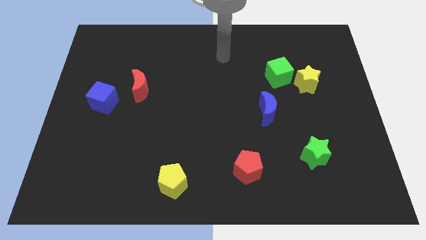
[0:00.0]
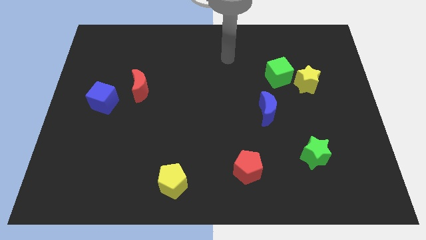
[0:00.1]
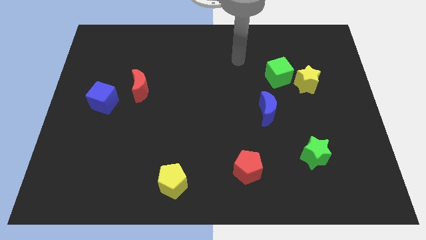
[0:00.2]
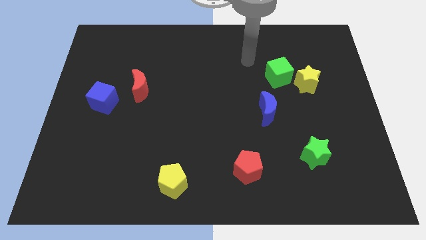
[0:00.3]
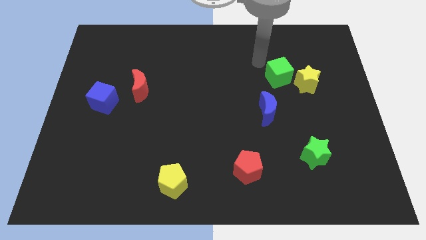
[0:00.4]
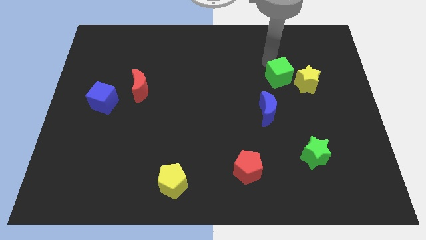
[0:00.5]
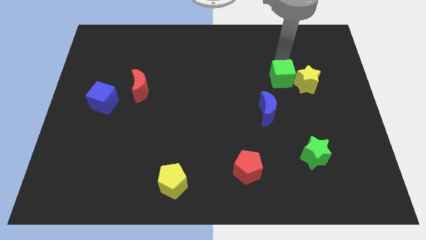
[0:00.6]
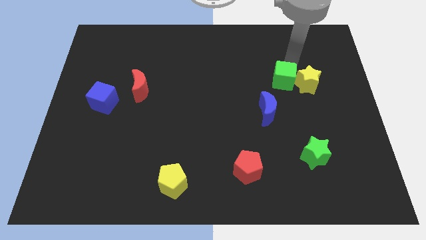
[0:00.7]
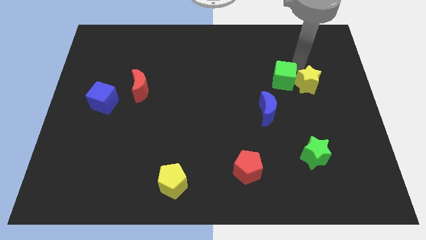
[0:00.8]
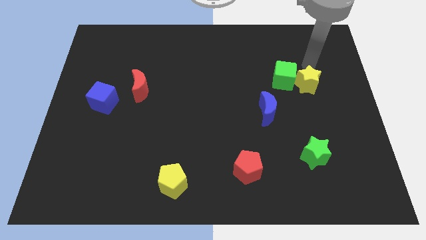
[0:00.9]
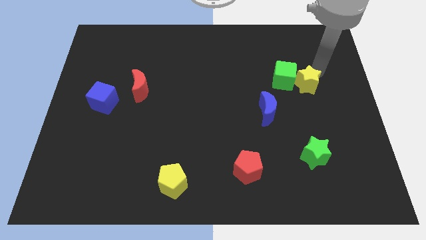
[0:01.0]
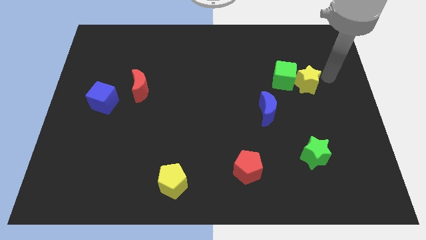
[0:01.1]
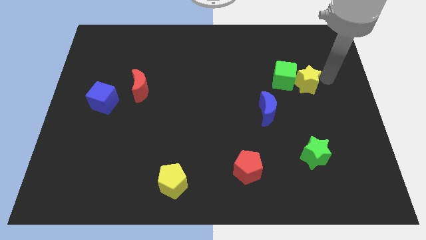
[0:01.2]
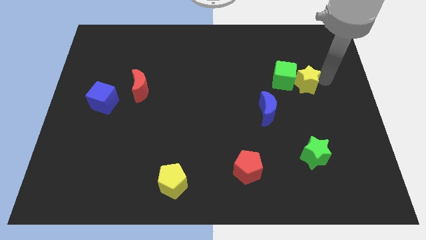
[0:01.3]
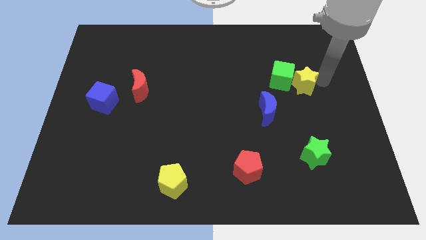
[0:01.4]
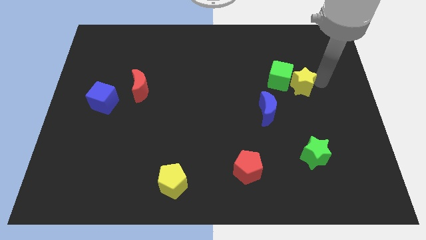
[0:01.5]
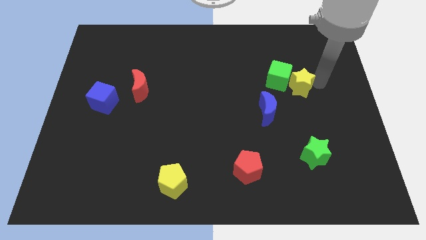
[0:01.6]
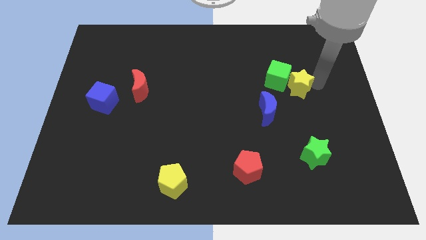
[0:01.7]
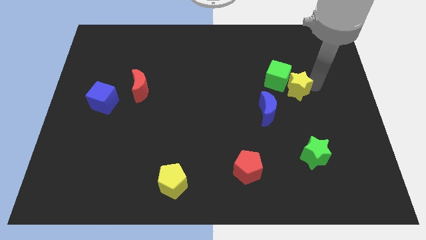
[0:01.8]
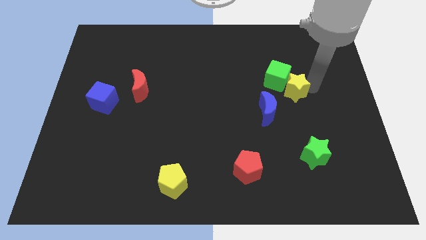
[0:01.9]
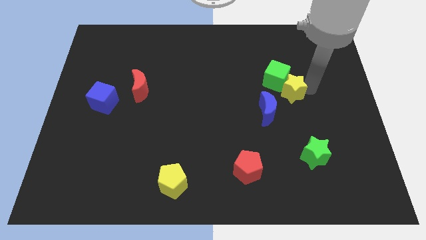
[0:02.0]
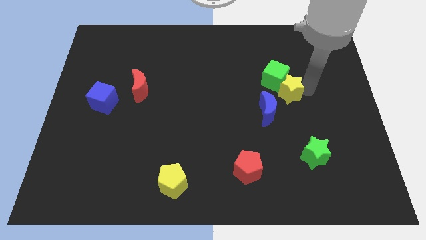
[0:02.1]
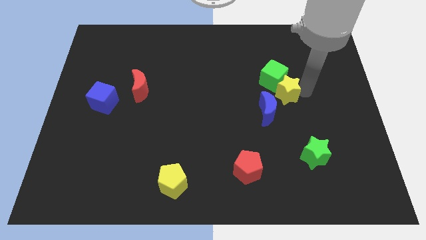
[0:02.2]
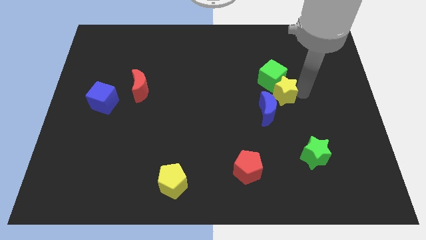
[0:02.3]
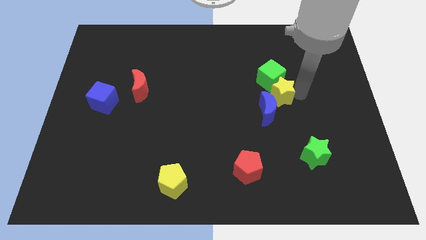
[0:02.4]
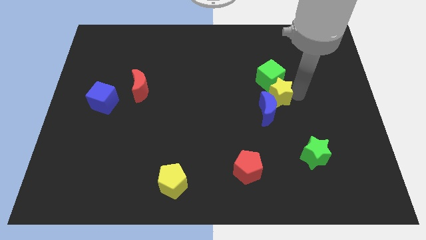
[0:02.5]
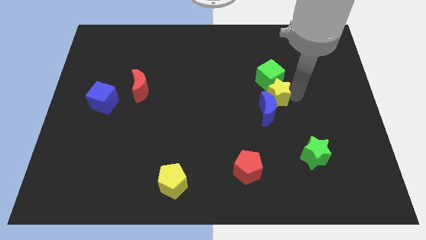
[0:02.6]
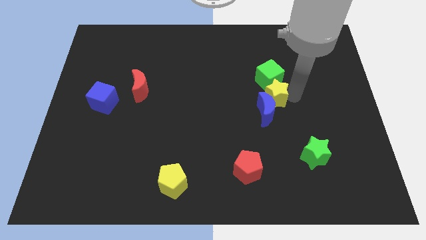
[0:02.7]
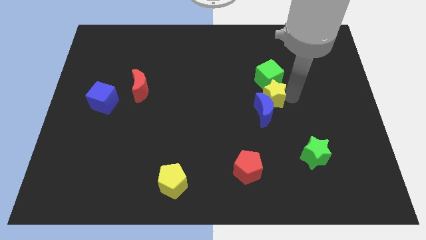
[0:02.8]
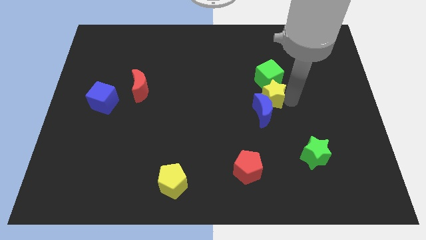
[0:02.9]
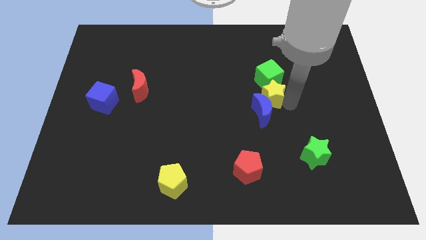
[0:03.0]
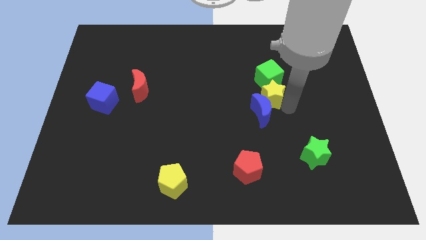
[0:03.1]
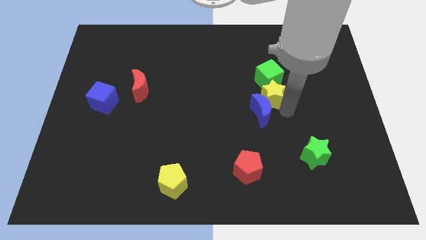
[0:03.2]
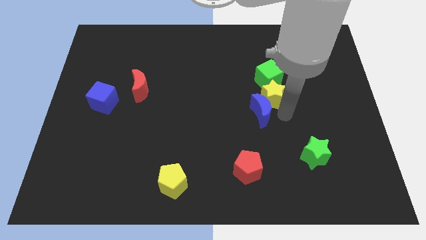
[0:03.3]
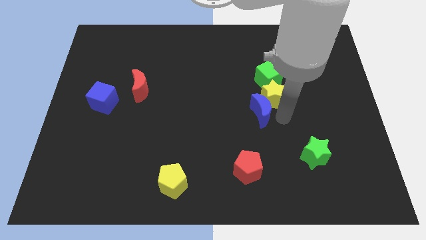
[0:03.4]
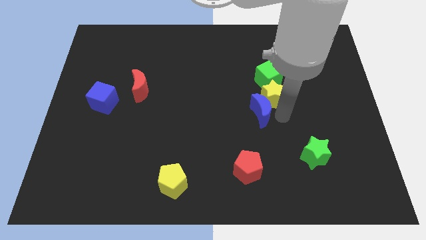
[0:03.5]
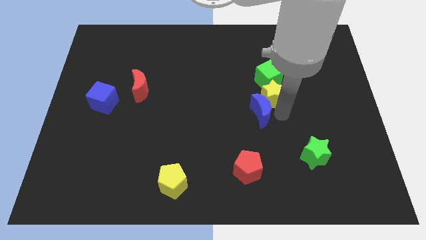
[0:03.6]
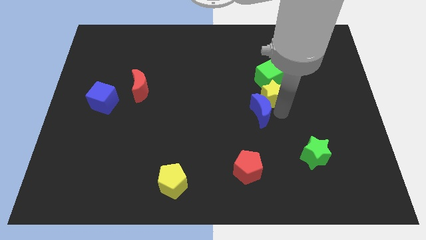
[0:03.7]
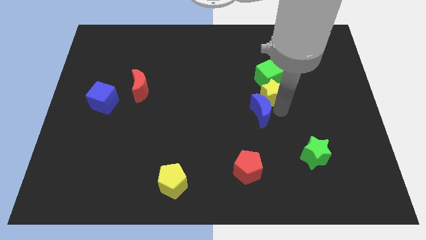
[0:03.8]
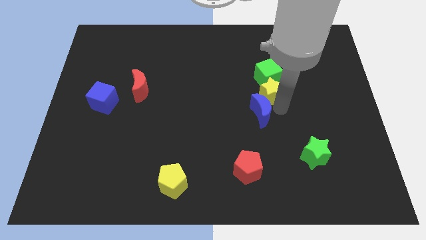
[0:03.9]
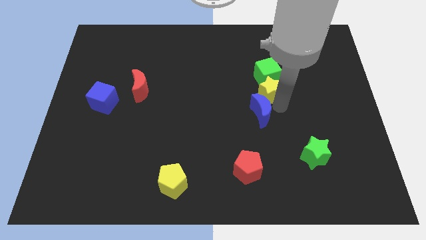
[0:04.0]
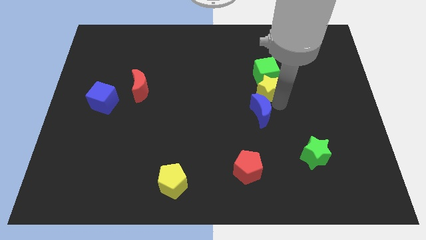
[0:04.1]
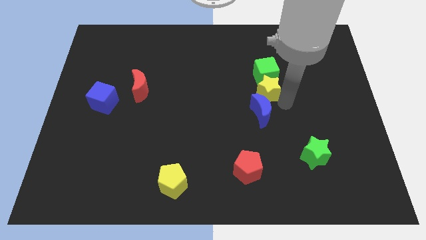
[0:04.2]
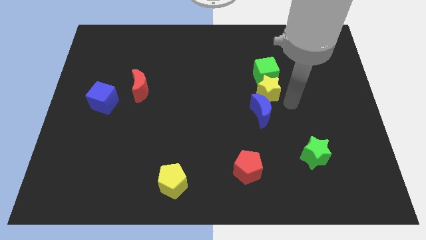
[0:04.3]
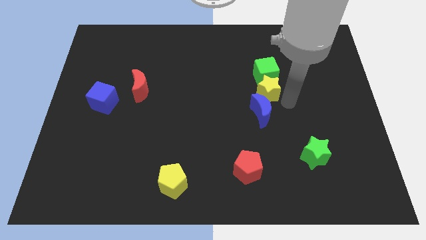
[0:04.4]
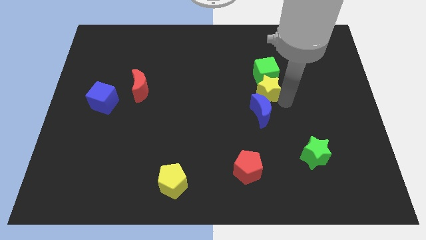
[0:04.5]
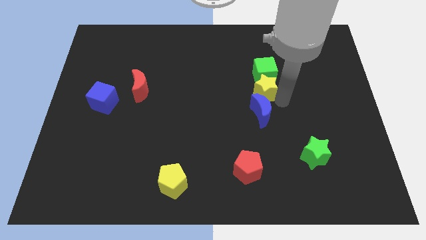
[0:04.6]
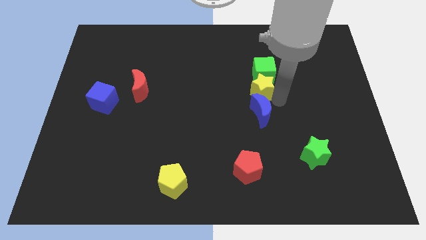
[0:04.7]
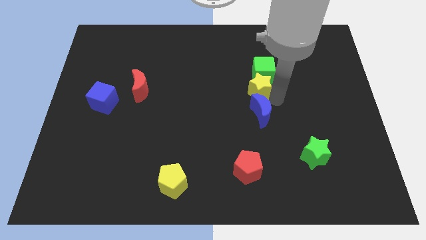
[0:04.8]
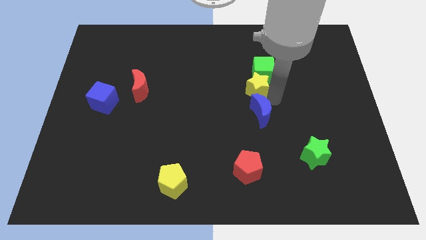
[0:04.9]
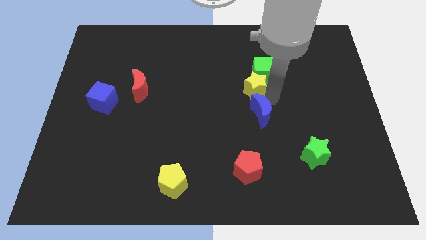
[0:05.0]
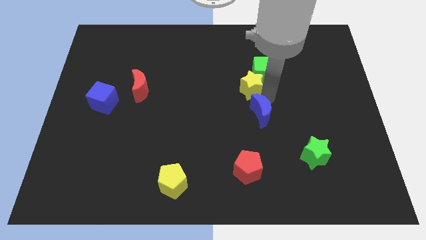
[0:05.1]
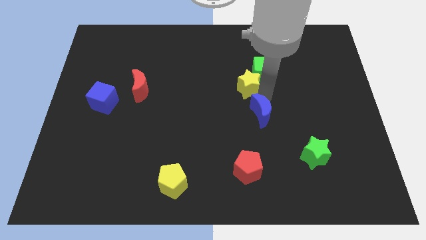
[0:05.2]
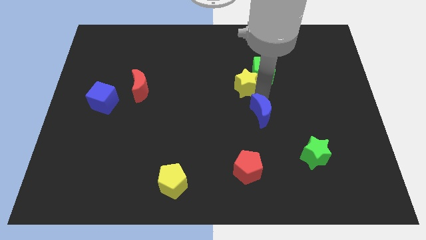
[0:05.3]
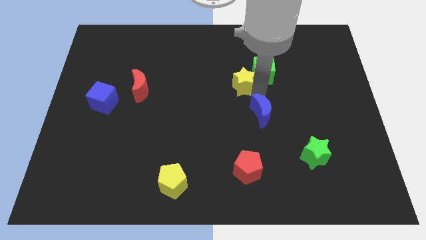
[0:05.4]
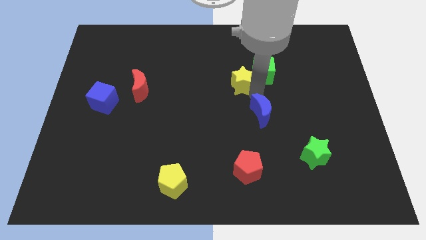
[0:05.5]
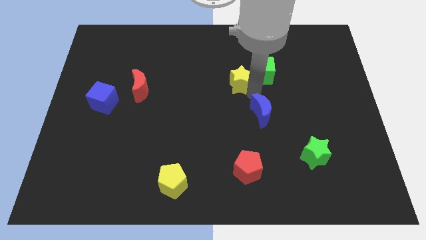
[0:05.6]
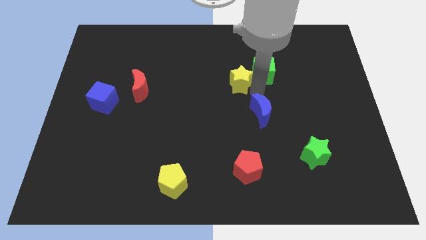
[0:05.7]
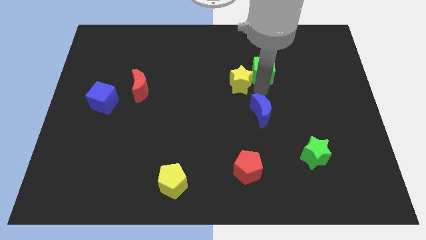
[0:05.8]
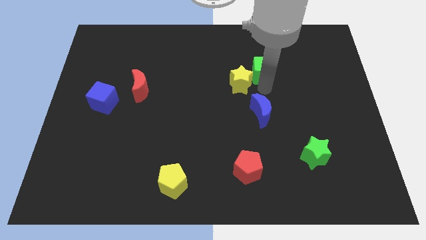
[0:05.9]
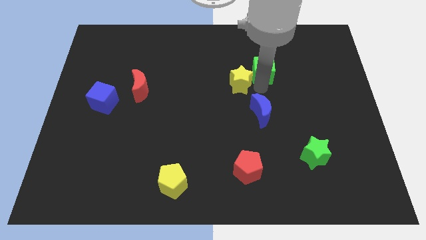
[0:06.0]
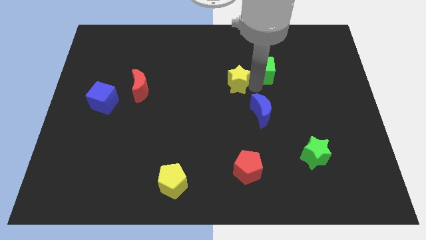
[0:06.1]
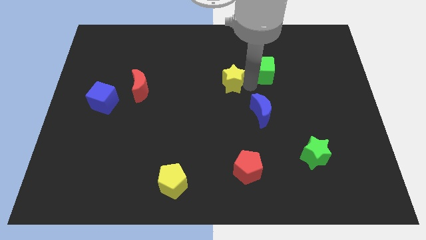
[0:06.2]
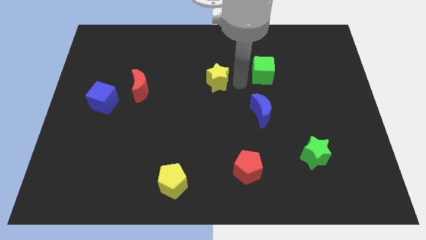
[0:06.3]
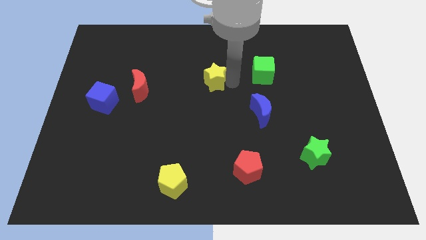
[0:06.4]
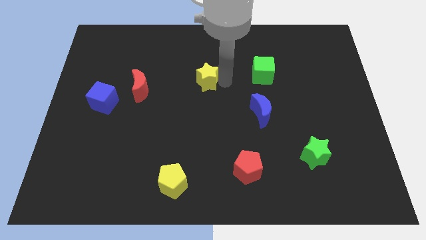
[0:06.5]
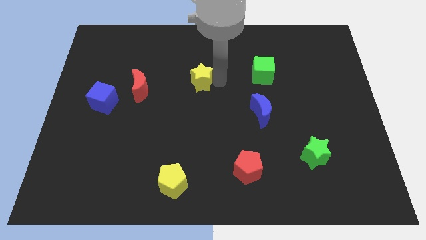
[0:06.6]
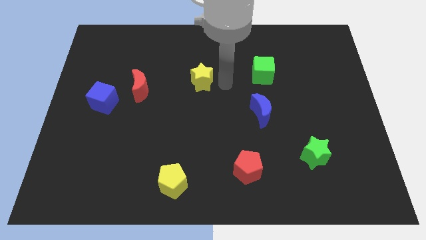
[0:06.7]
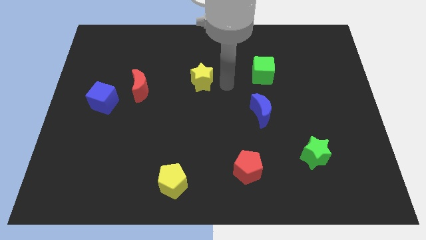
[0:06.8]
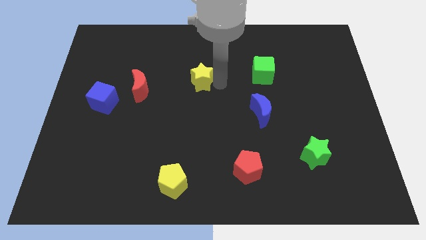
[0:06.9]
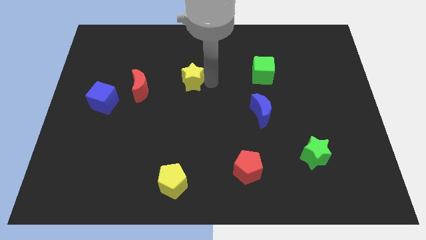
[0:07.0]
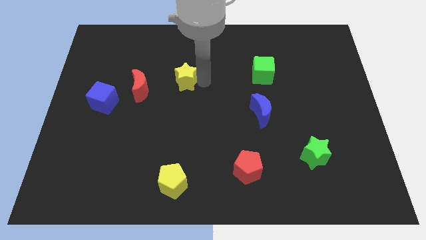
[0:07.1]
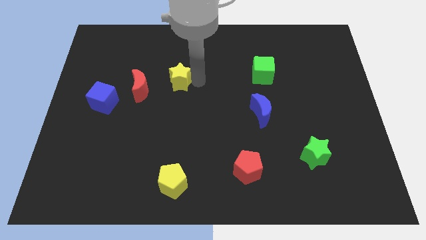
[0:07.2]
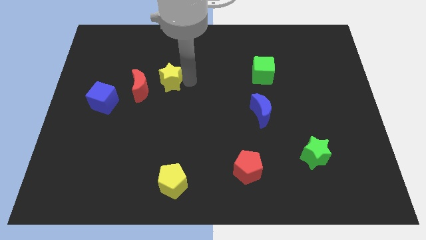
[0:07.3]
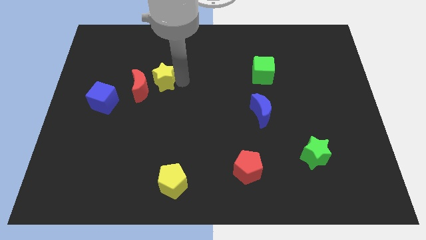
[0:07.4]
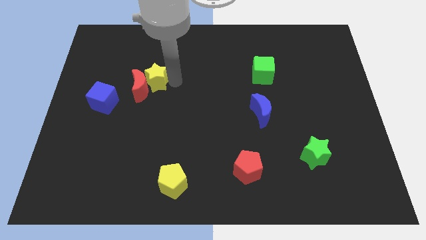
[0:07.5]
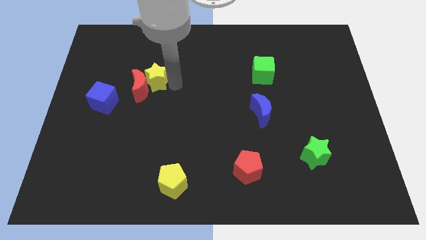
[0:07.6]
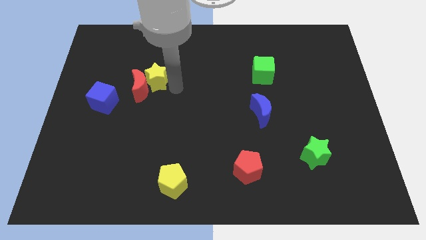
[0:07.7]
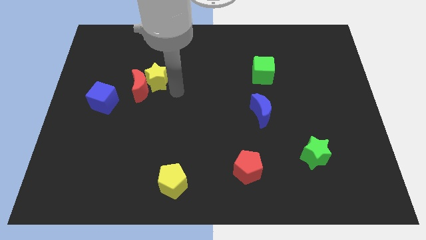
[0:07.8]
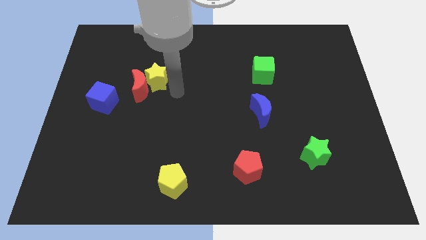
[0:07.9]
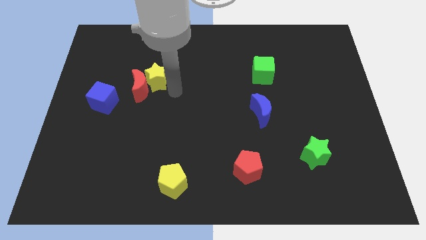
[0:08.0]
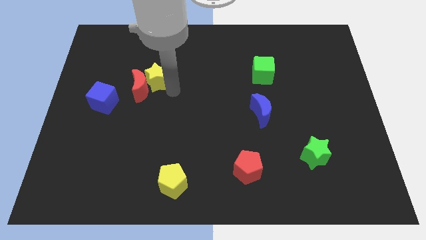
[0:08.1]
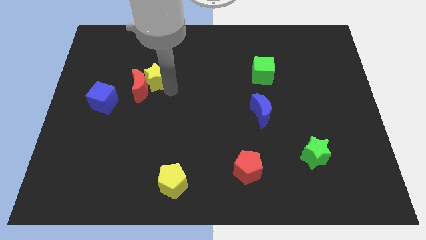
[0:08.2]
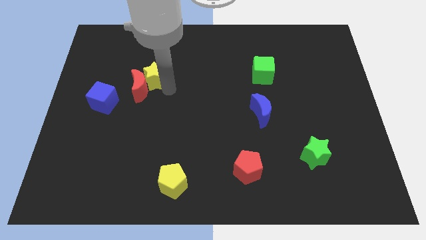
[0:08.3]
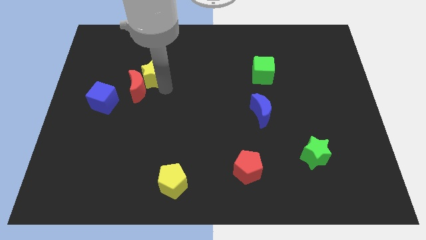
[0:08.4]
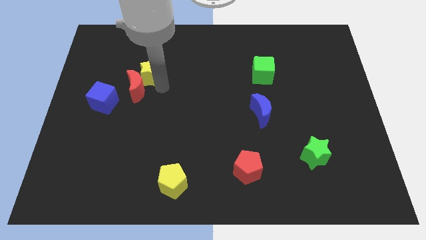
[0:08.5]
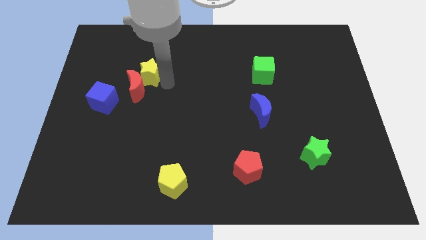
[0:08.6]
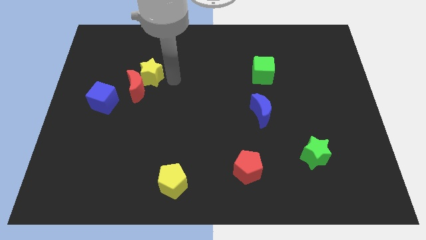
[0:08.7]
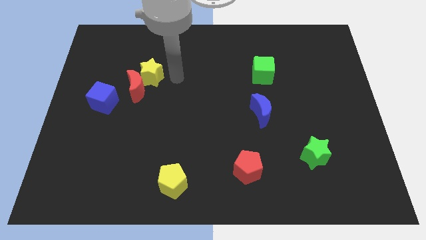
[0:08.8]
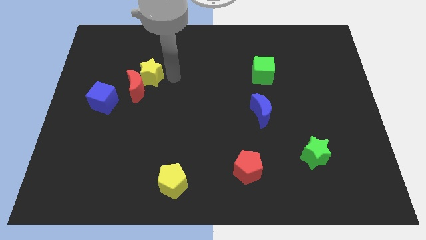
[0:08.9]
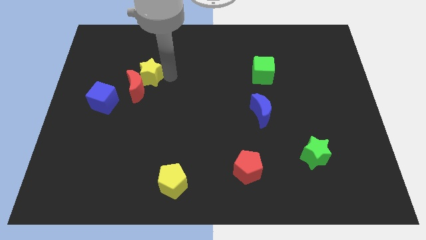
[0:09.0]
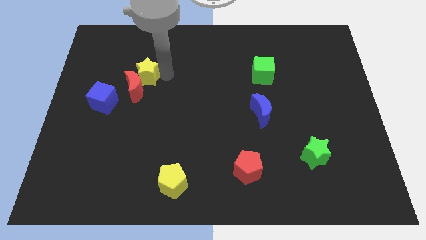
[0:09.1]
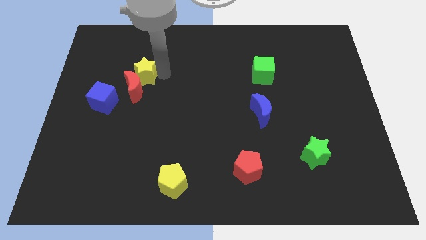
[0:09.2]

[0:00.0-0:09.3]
push the yellow star to the top left side of the red moon
